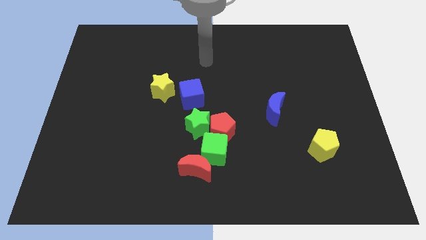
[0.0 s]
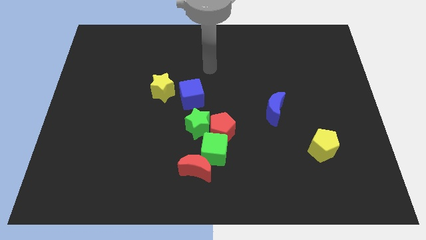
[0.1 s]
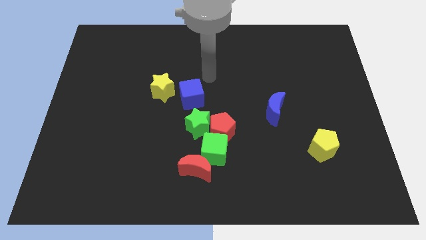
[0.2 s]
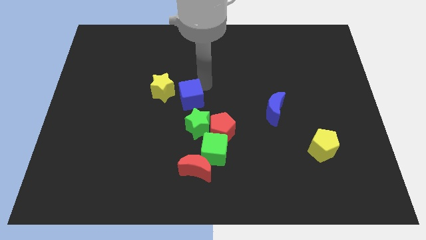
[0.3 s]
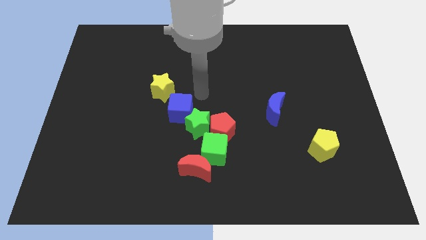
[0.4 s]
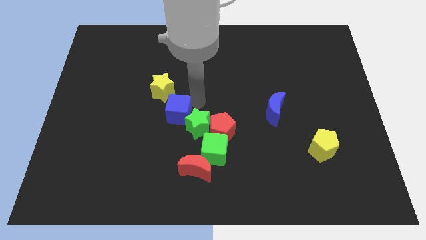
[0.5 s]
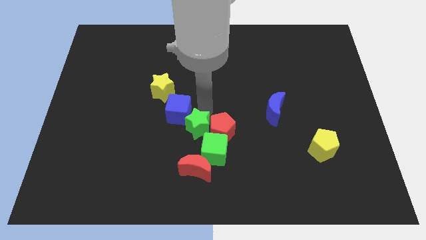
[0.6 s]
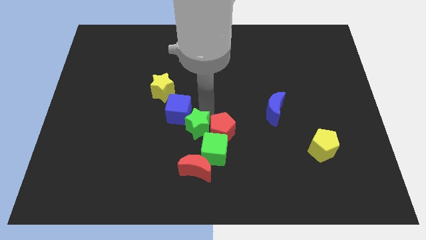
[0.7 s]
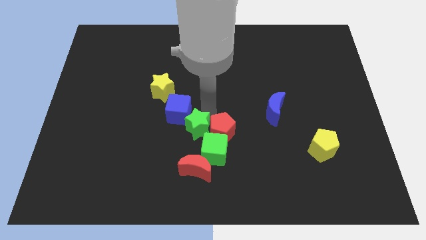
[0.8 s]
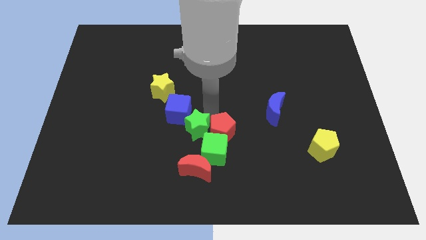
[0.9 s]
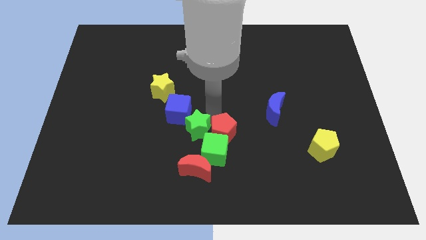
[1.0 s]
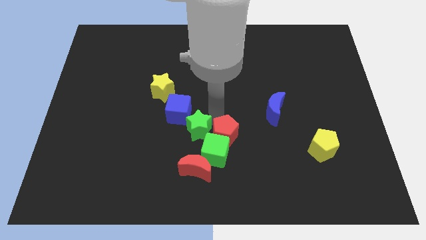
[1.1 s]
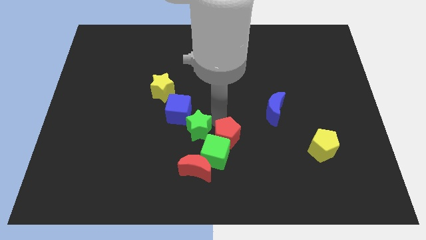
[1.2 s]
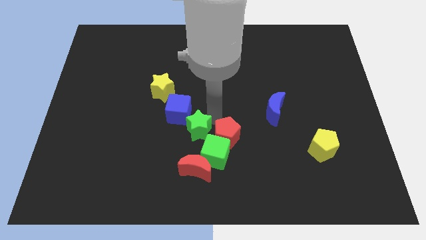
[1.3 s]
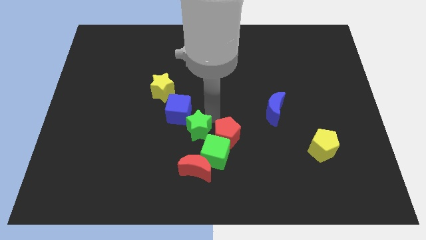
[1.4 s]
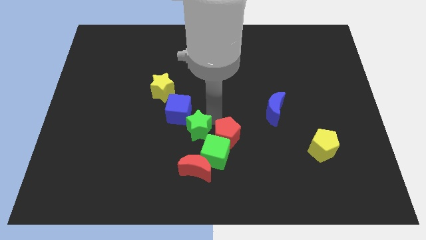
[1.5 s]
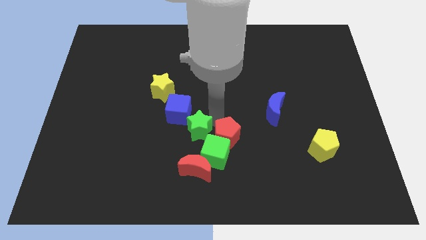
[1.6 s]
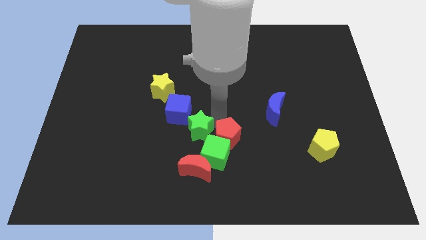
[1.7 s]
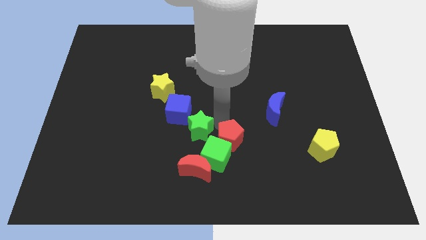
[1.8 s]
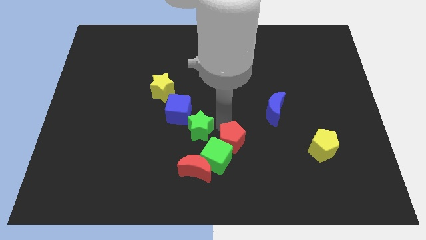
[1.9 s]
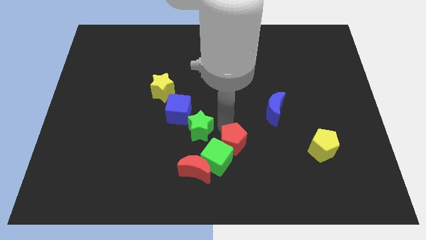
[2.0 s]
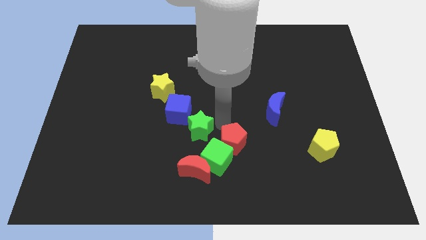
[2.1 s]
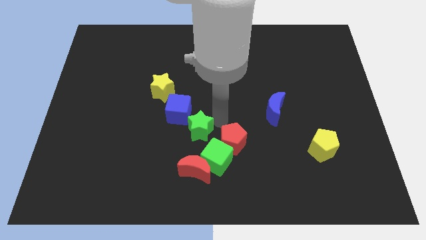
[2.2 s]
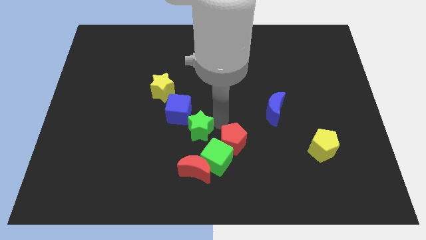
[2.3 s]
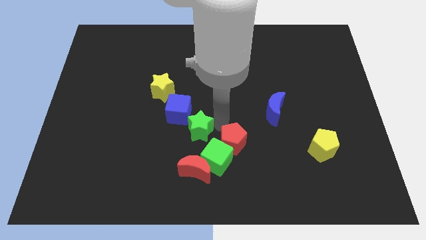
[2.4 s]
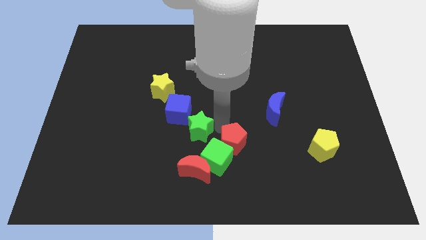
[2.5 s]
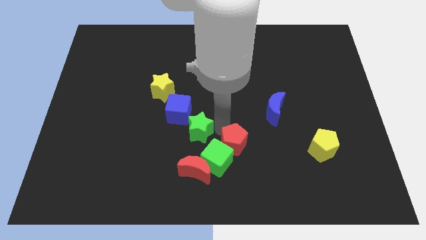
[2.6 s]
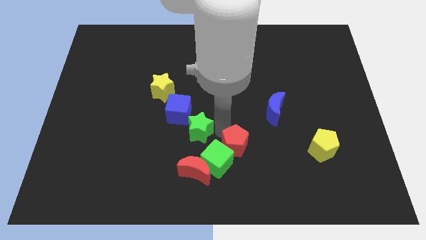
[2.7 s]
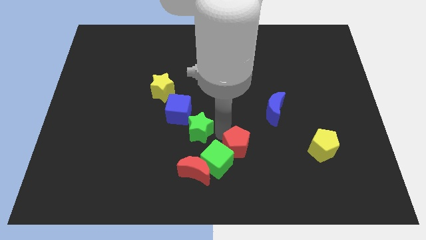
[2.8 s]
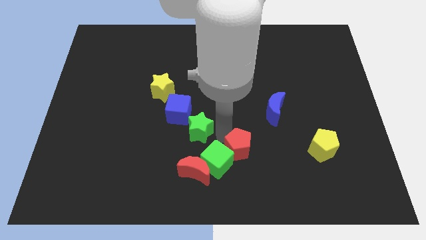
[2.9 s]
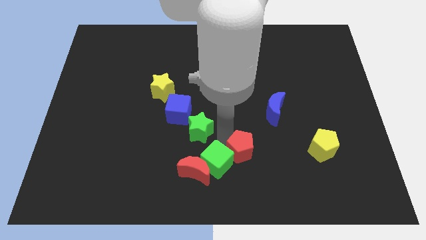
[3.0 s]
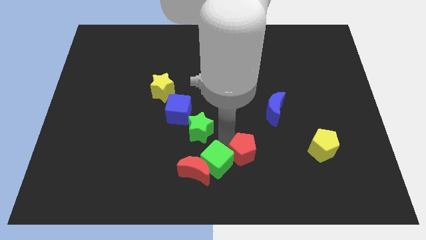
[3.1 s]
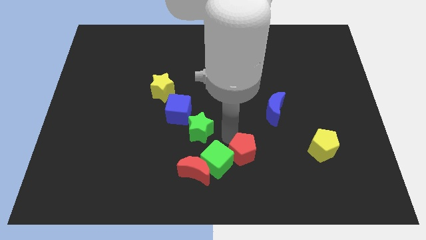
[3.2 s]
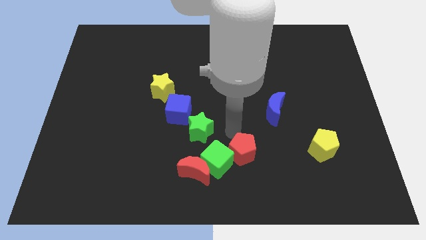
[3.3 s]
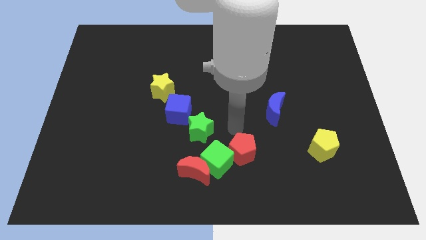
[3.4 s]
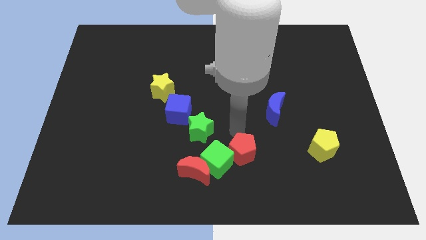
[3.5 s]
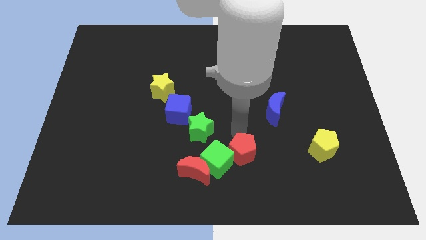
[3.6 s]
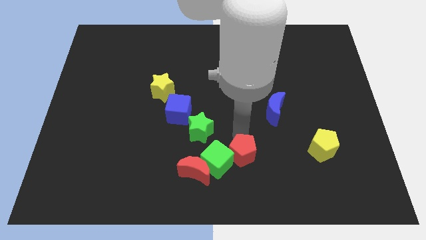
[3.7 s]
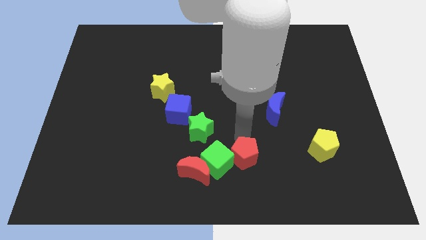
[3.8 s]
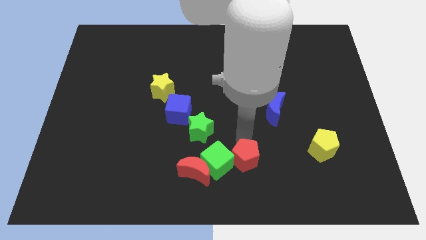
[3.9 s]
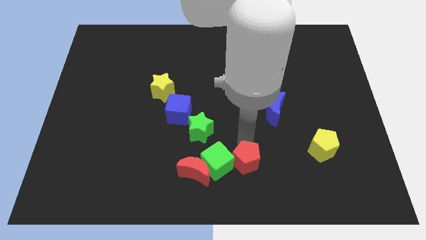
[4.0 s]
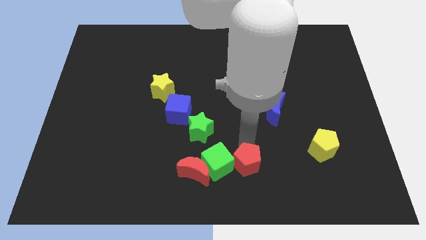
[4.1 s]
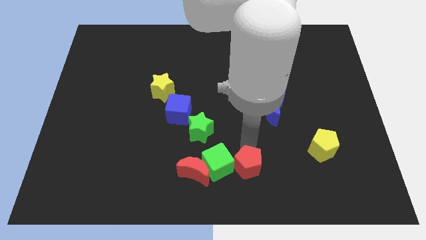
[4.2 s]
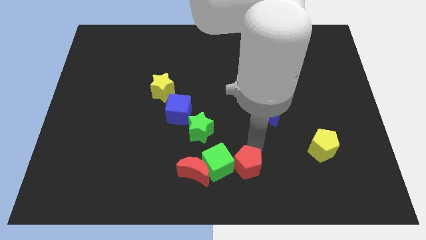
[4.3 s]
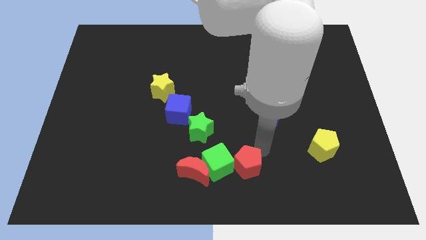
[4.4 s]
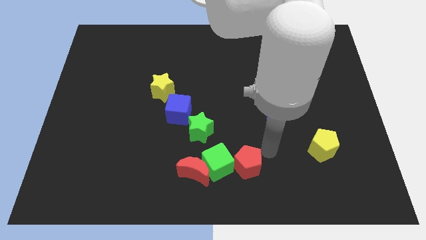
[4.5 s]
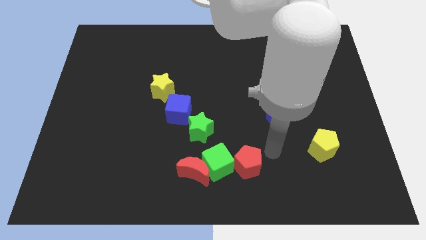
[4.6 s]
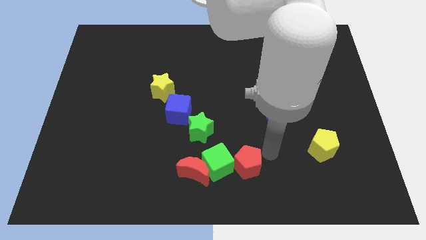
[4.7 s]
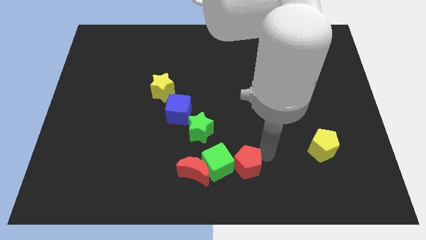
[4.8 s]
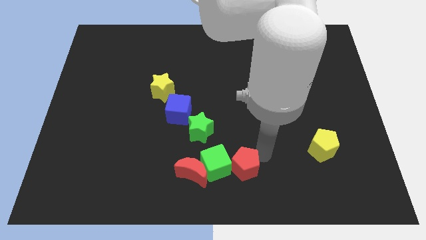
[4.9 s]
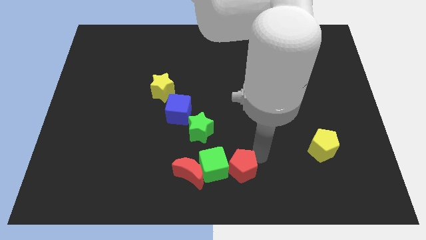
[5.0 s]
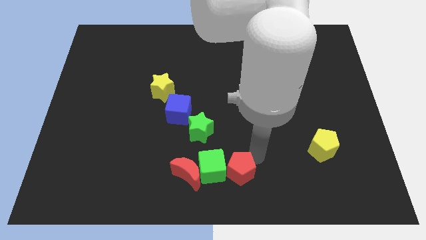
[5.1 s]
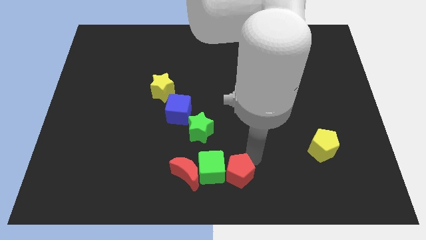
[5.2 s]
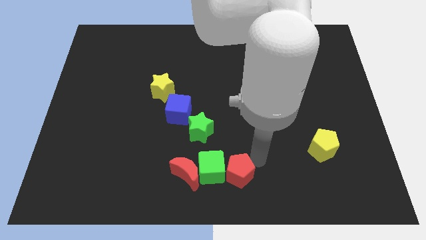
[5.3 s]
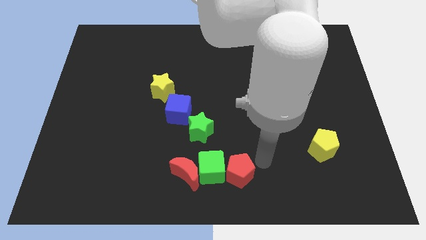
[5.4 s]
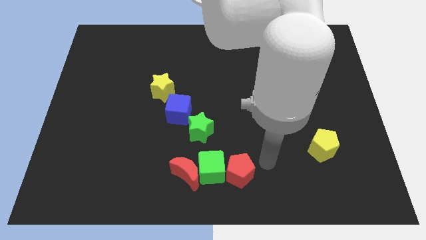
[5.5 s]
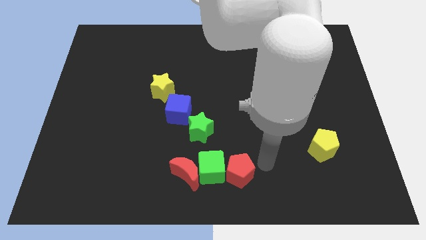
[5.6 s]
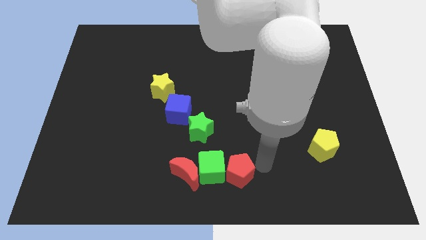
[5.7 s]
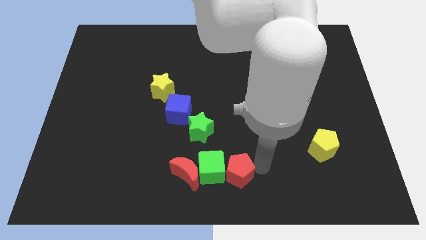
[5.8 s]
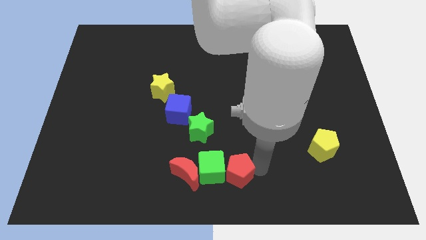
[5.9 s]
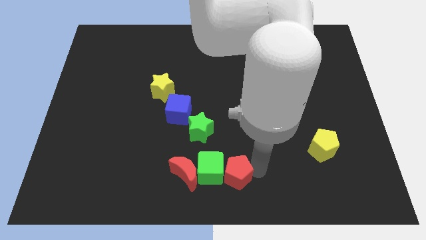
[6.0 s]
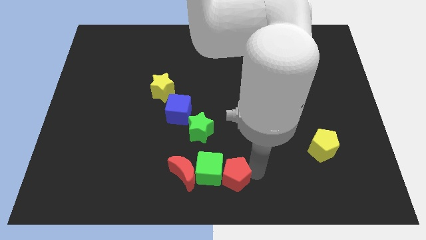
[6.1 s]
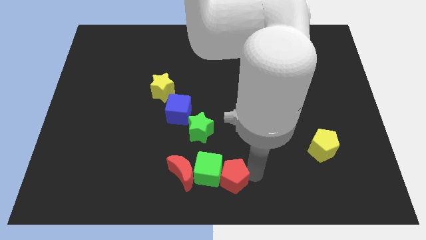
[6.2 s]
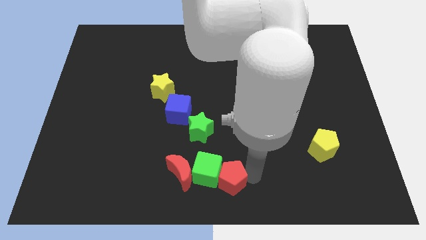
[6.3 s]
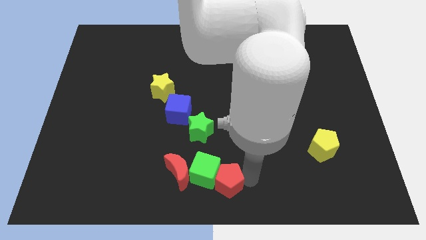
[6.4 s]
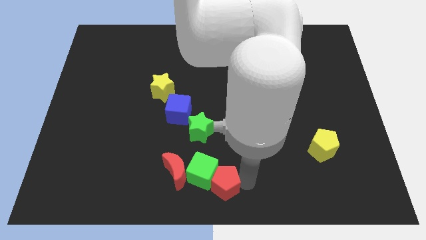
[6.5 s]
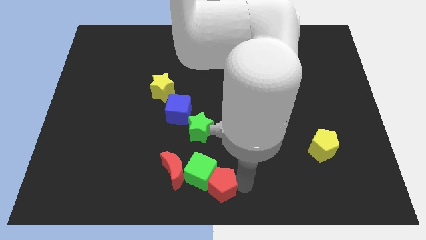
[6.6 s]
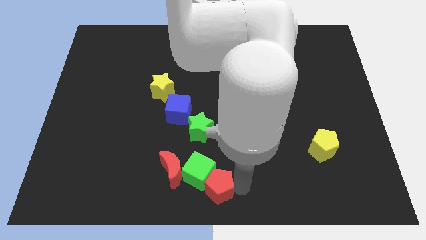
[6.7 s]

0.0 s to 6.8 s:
push the red pentagon to the bottom side of the green star
